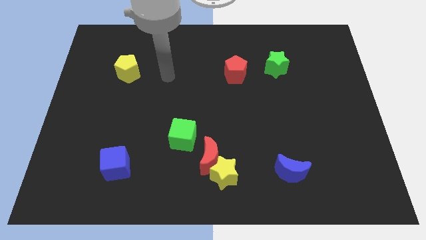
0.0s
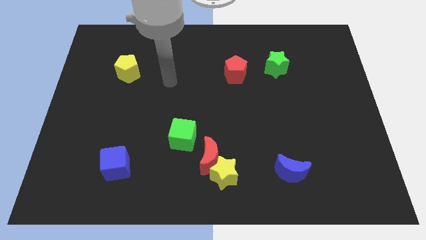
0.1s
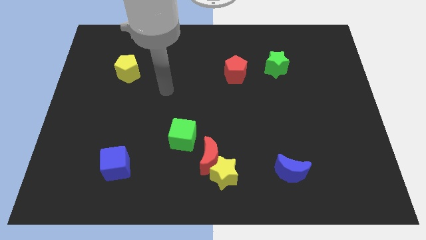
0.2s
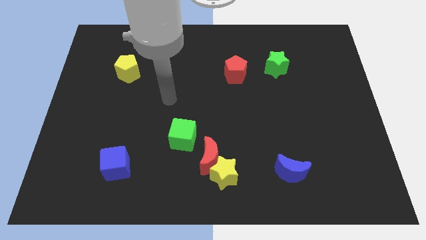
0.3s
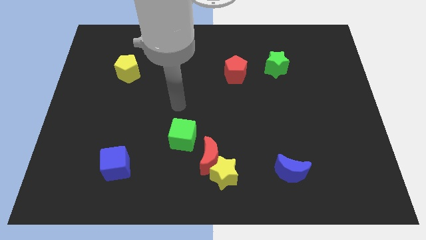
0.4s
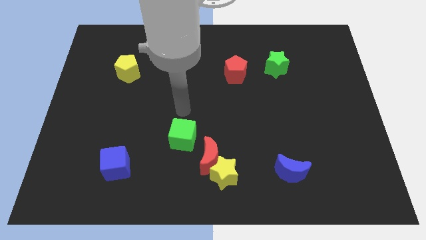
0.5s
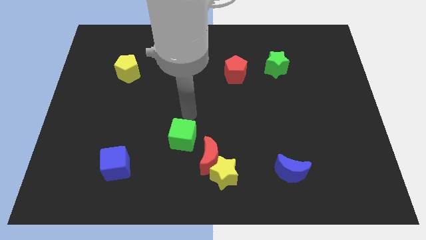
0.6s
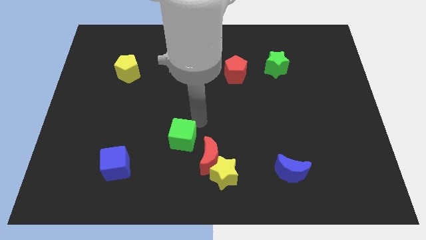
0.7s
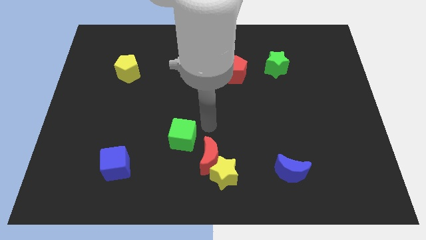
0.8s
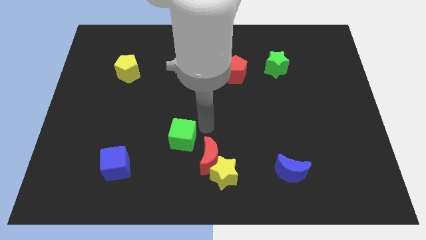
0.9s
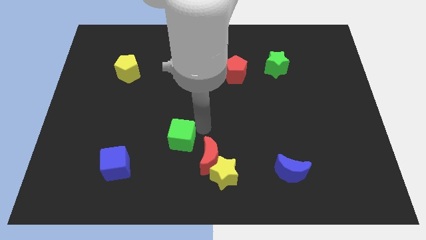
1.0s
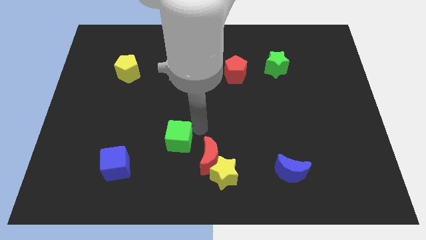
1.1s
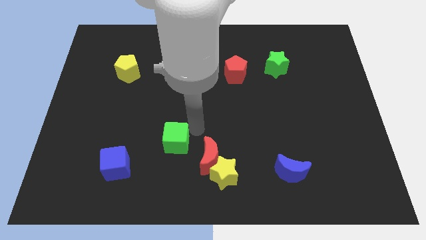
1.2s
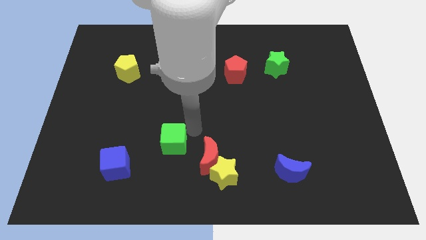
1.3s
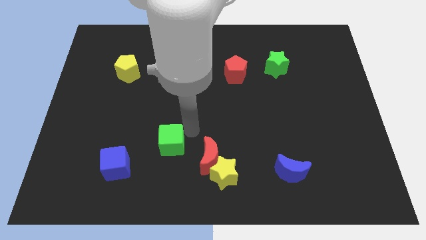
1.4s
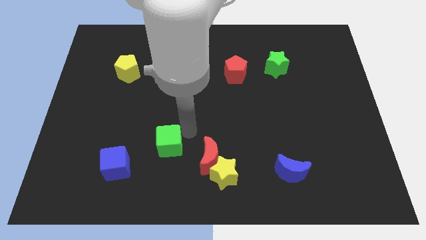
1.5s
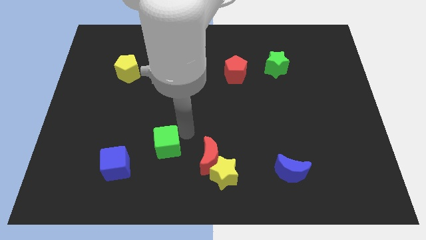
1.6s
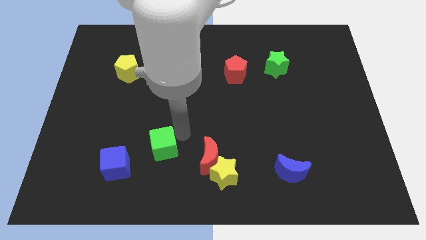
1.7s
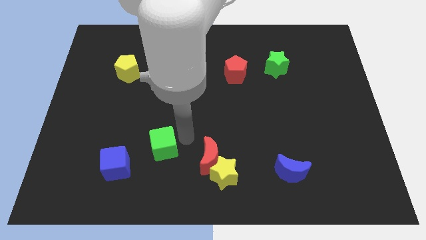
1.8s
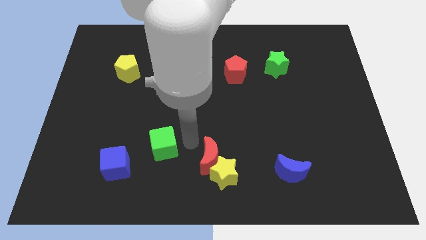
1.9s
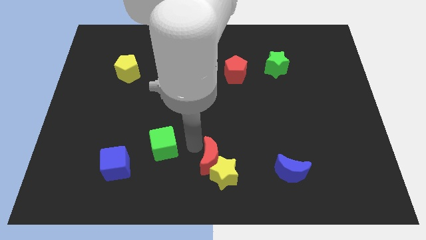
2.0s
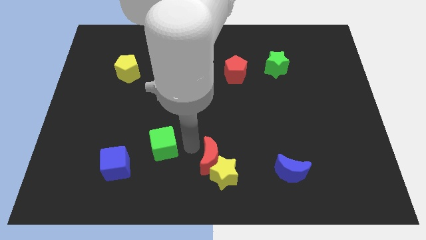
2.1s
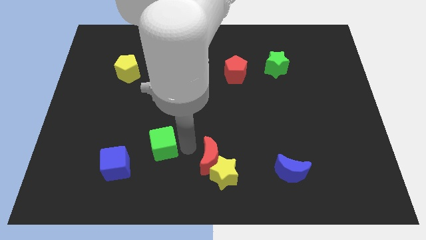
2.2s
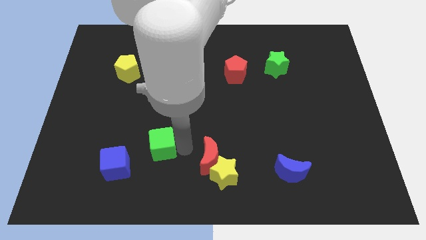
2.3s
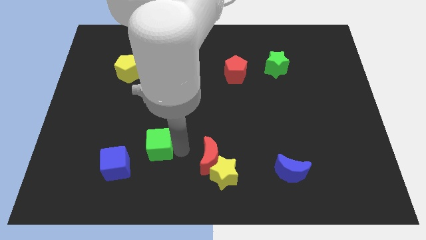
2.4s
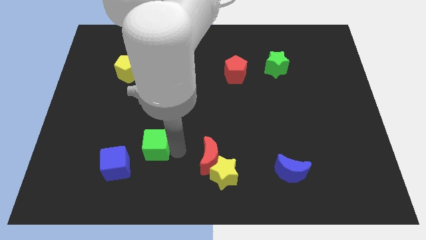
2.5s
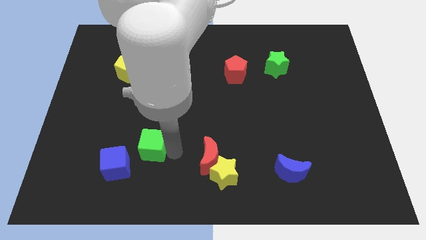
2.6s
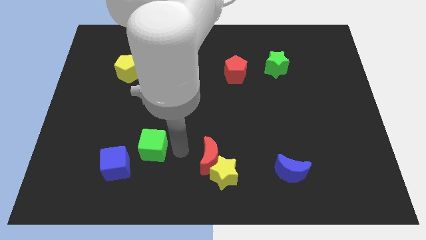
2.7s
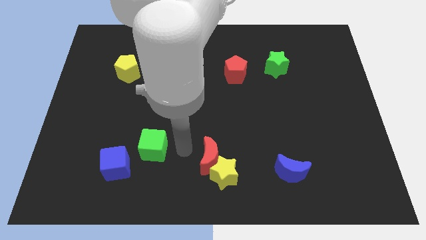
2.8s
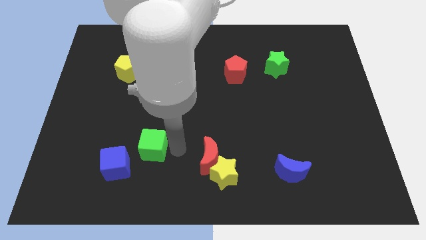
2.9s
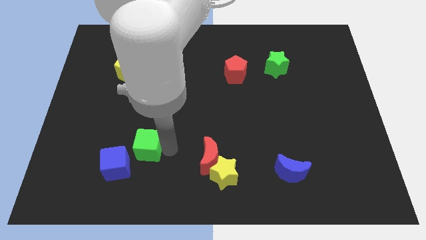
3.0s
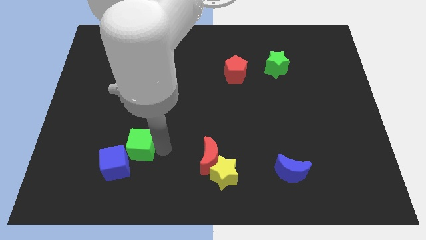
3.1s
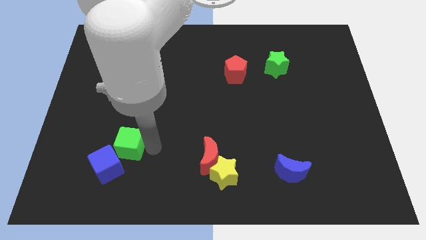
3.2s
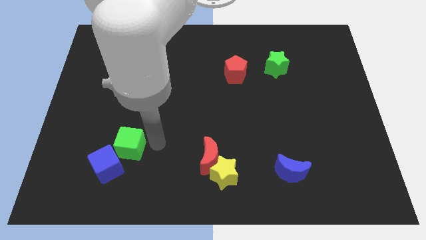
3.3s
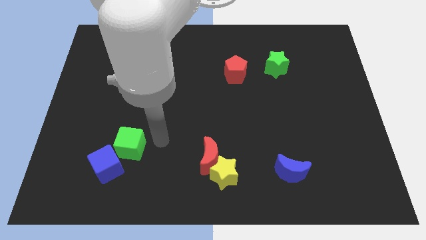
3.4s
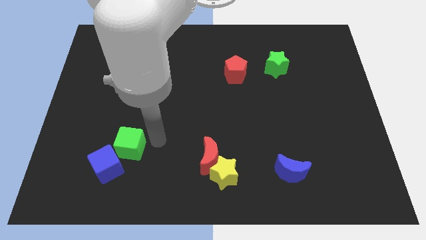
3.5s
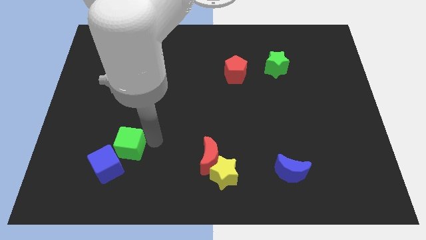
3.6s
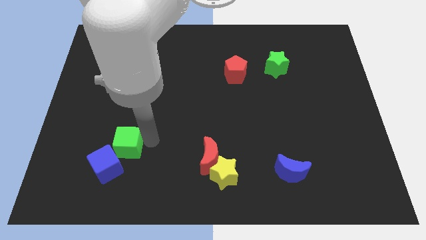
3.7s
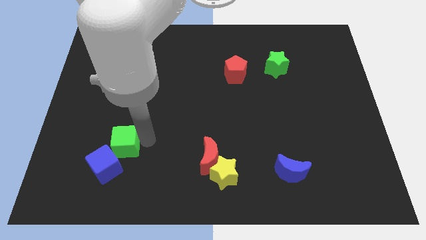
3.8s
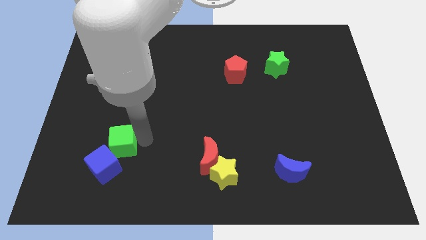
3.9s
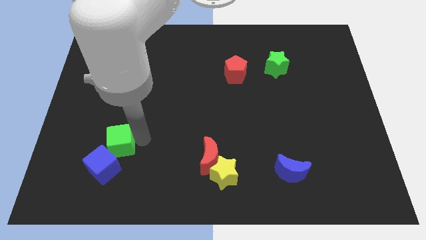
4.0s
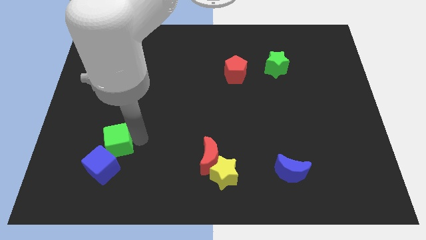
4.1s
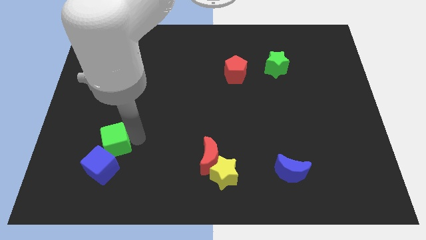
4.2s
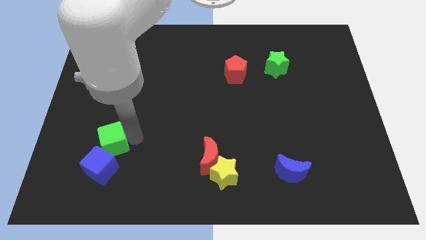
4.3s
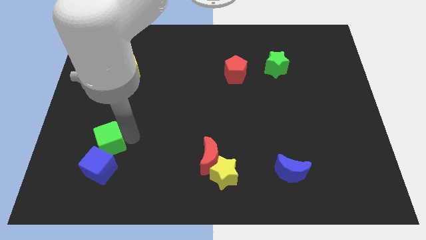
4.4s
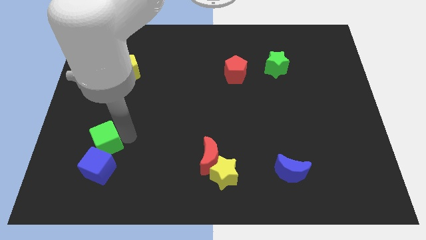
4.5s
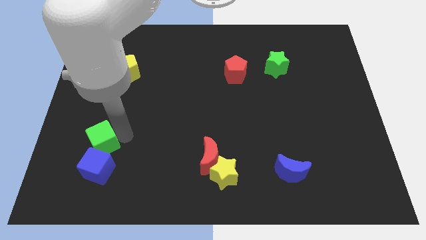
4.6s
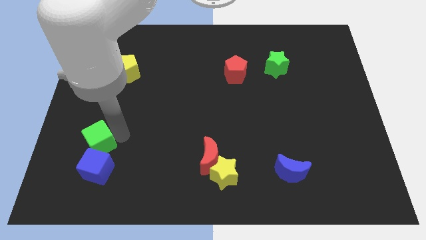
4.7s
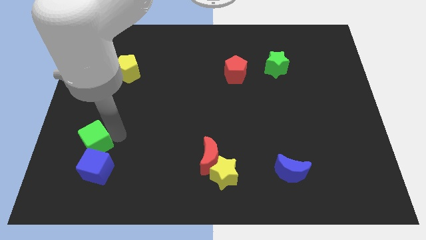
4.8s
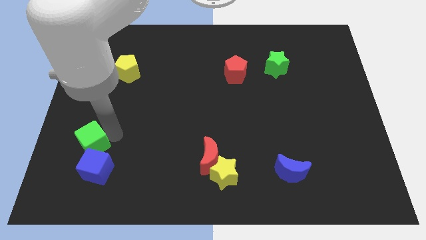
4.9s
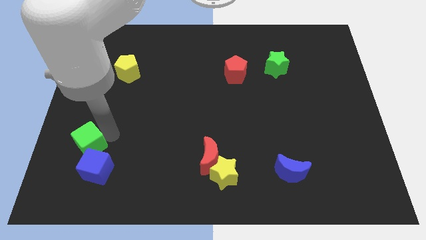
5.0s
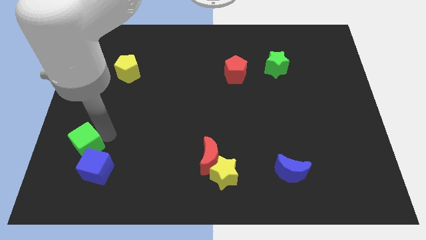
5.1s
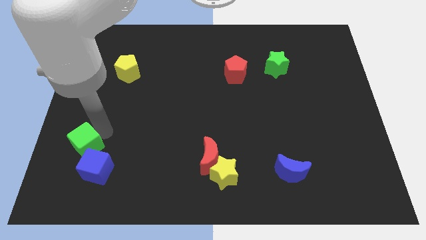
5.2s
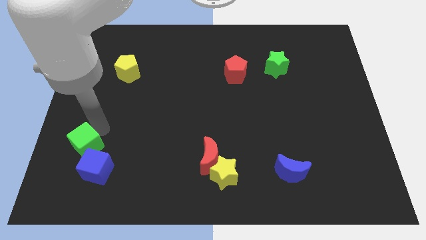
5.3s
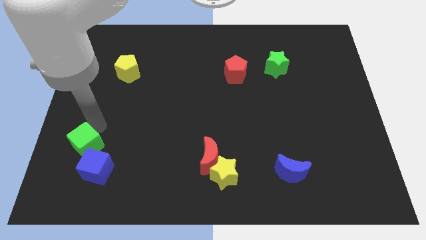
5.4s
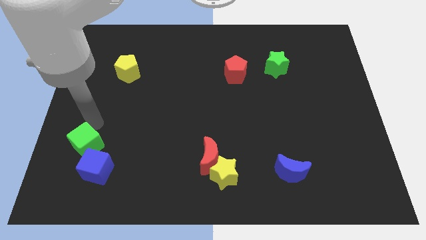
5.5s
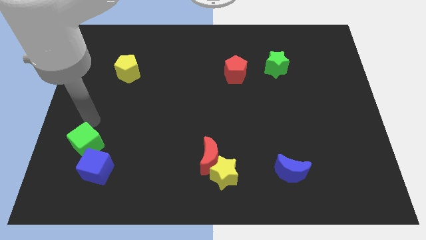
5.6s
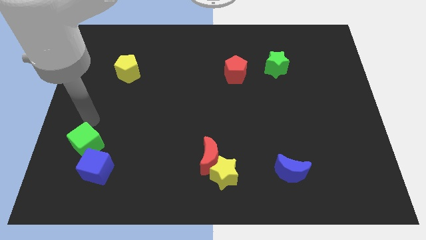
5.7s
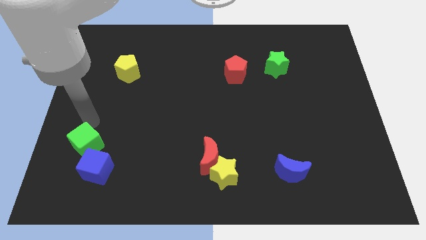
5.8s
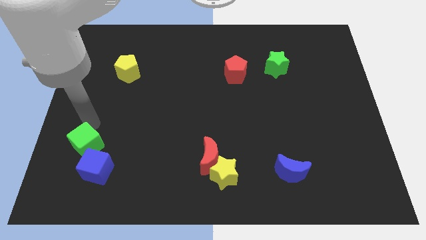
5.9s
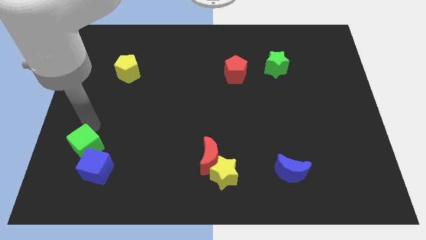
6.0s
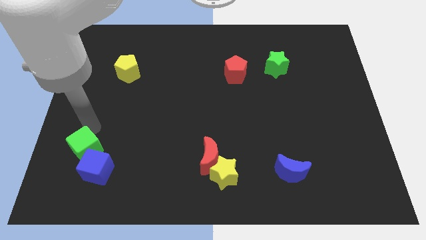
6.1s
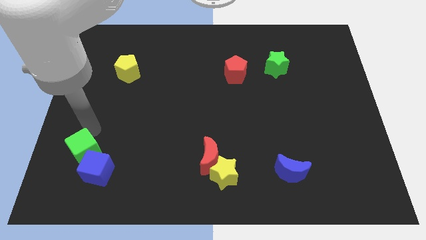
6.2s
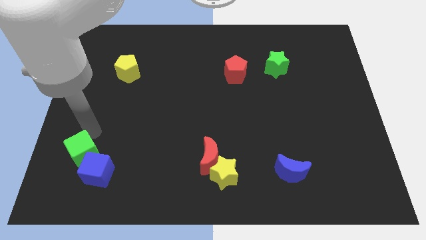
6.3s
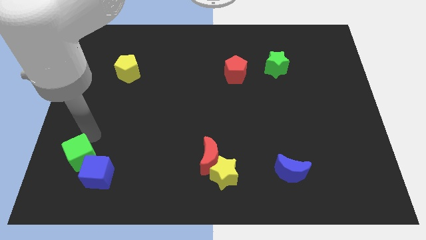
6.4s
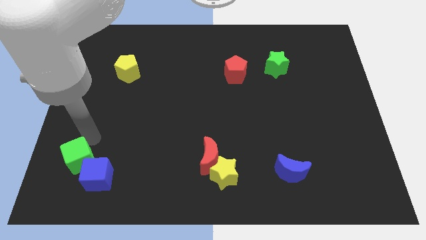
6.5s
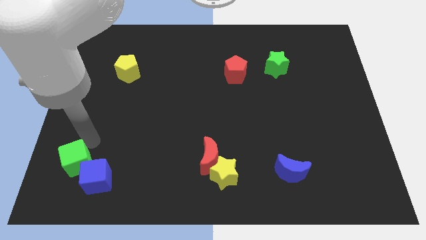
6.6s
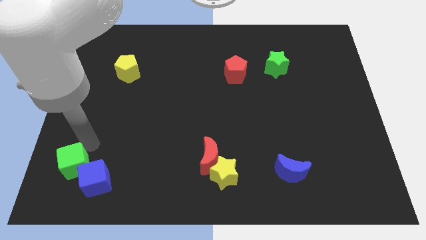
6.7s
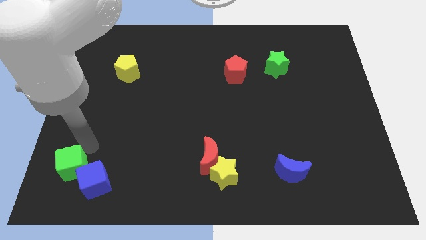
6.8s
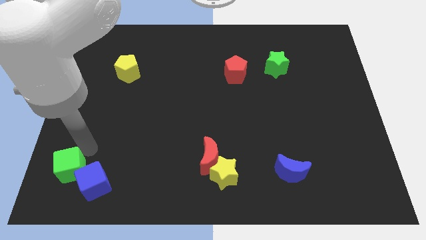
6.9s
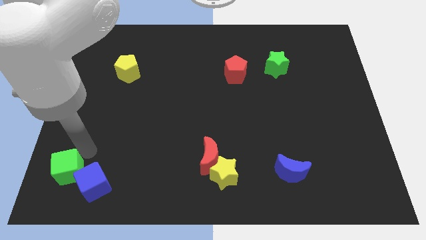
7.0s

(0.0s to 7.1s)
move the green cube to the bottom left corner

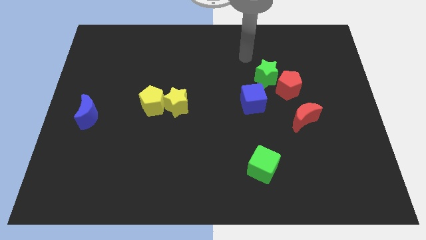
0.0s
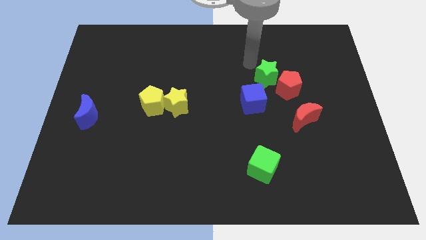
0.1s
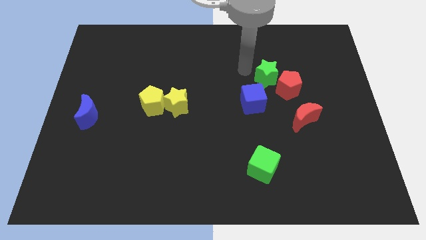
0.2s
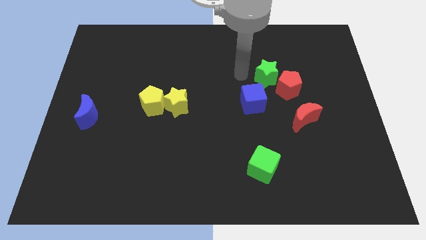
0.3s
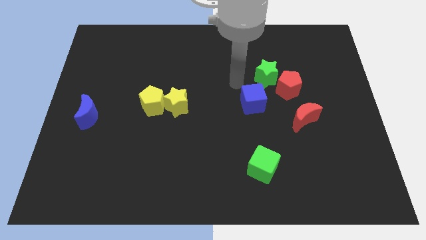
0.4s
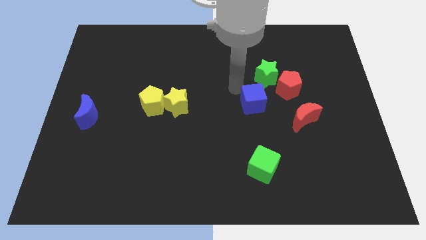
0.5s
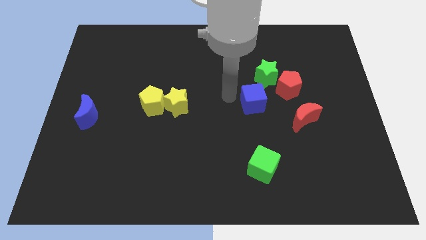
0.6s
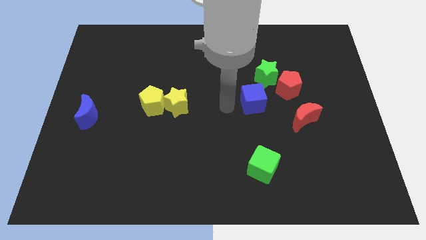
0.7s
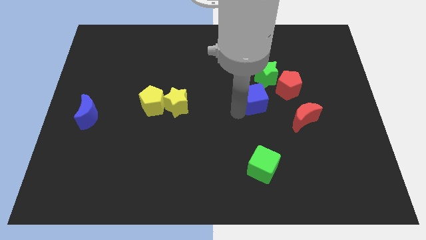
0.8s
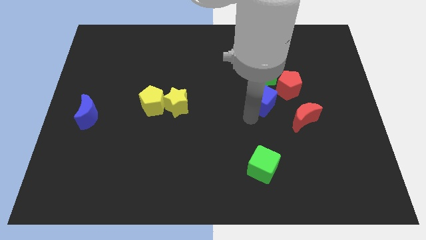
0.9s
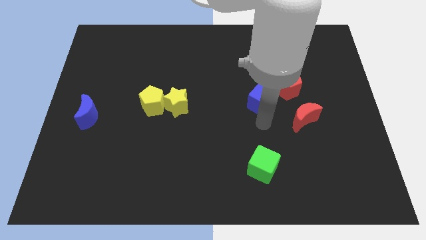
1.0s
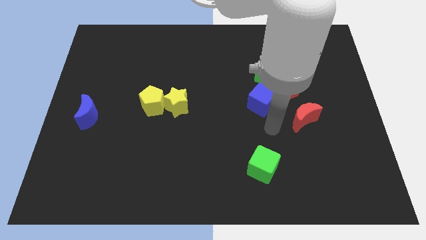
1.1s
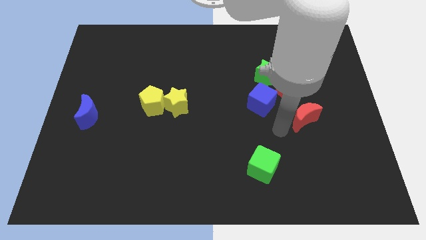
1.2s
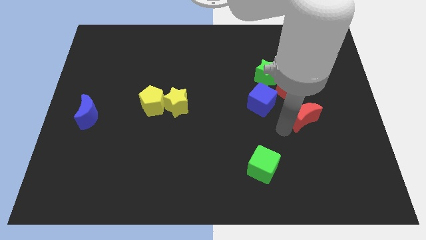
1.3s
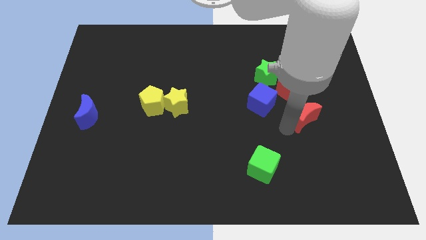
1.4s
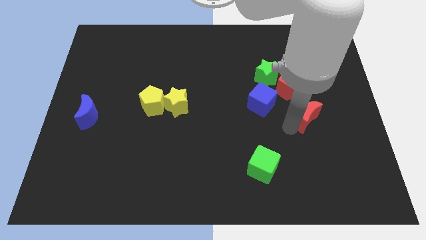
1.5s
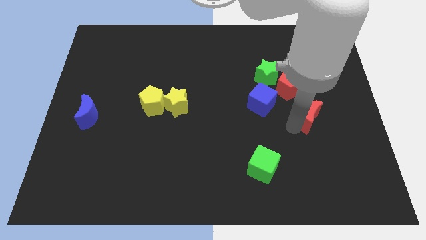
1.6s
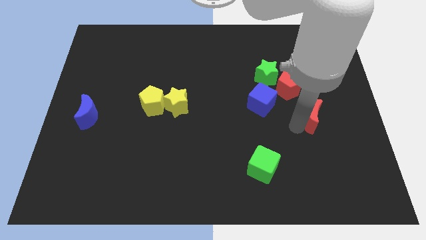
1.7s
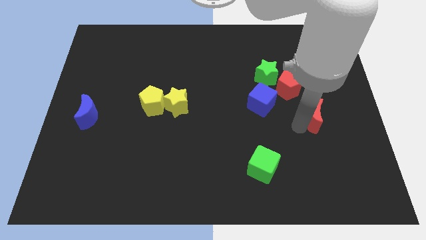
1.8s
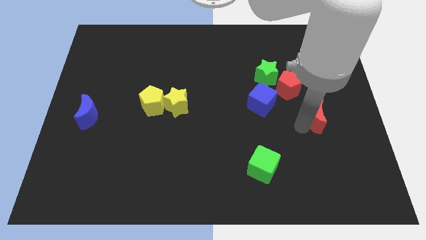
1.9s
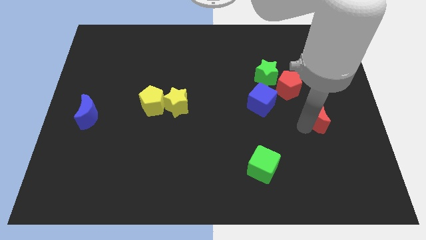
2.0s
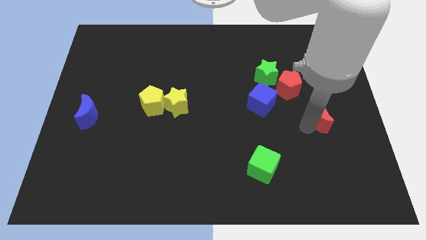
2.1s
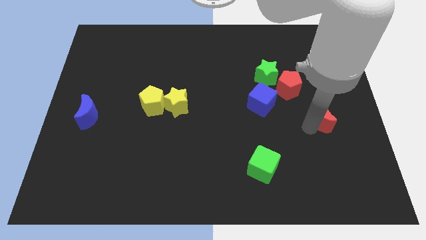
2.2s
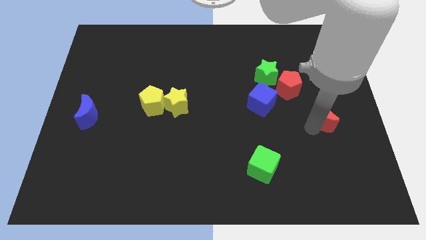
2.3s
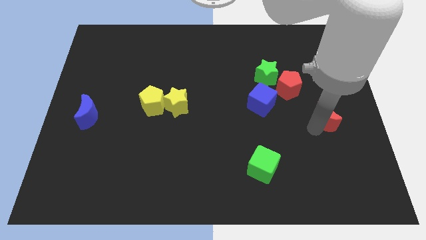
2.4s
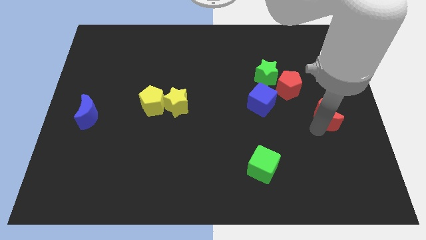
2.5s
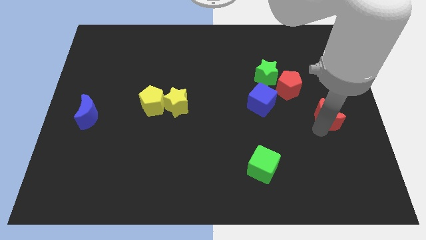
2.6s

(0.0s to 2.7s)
put the red moon to the right side
